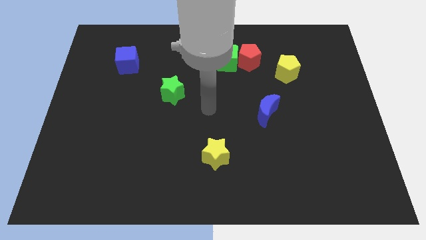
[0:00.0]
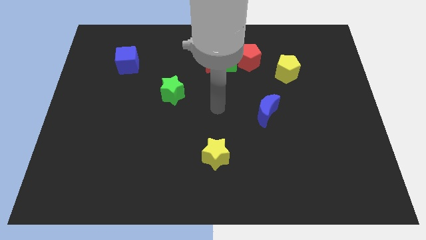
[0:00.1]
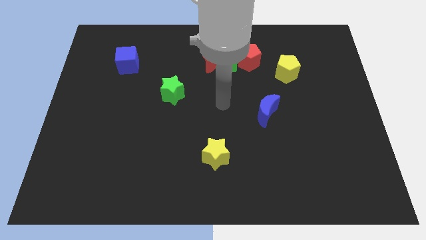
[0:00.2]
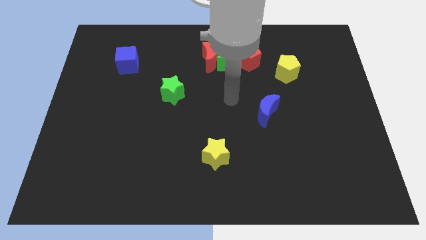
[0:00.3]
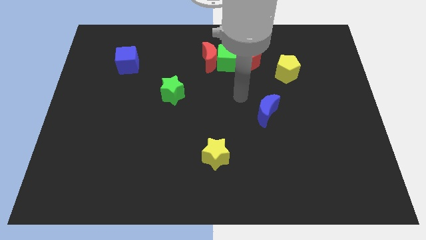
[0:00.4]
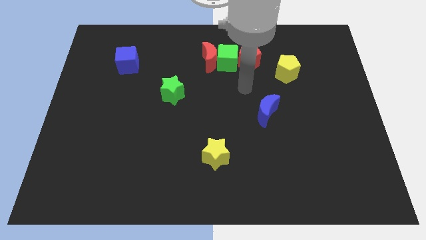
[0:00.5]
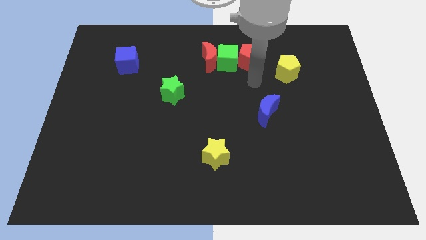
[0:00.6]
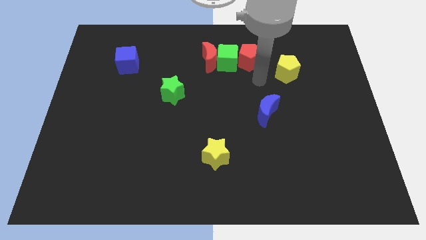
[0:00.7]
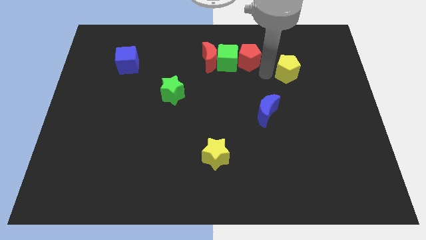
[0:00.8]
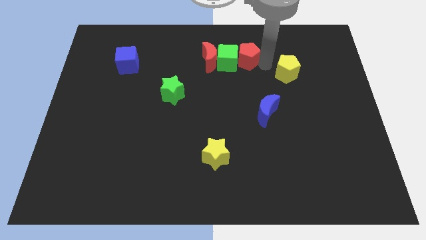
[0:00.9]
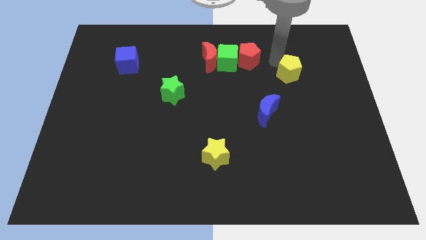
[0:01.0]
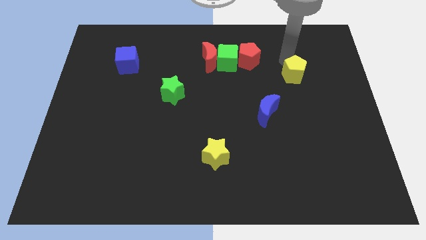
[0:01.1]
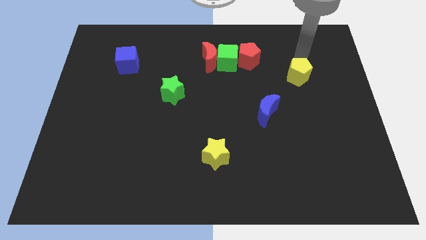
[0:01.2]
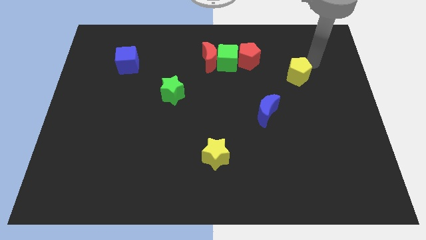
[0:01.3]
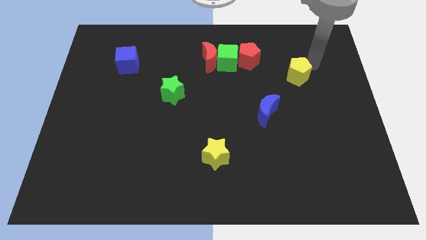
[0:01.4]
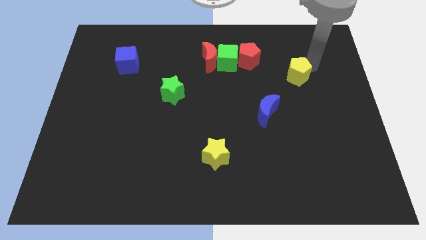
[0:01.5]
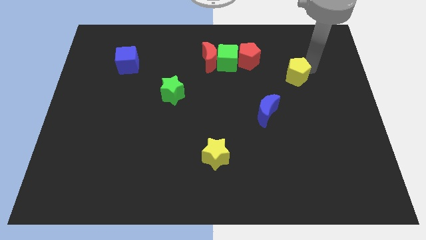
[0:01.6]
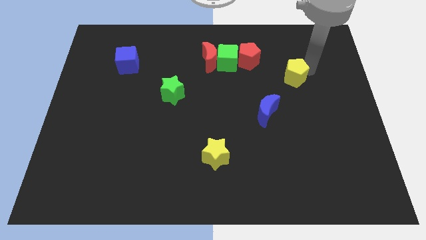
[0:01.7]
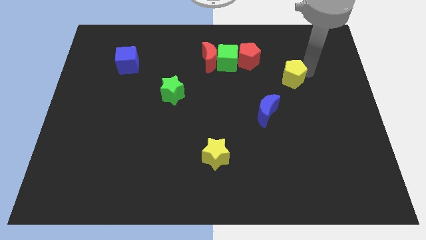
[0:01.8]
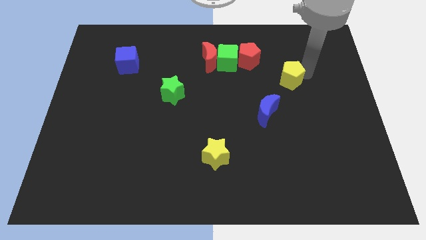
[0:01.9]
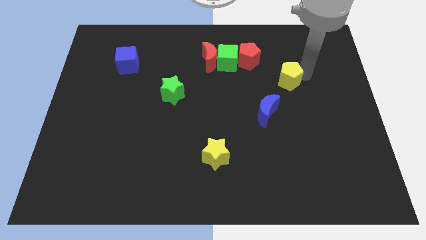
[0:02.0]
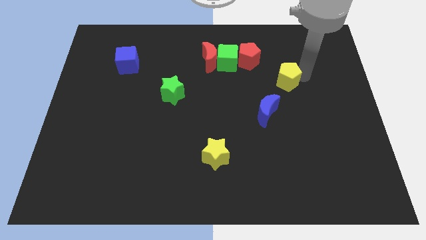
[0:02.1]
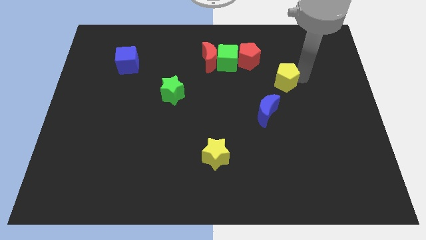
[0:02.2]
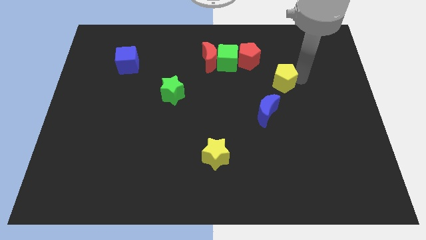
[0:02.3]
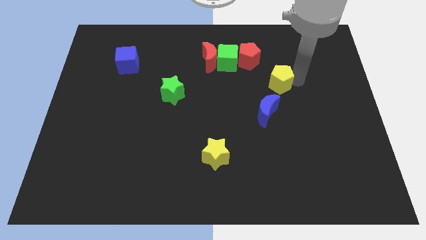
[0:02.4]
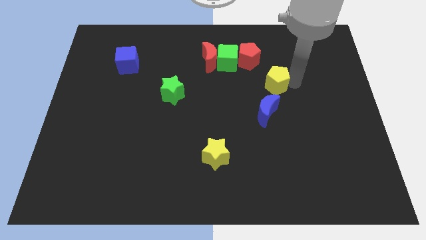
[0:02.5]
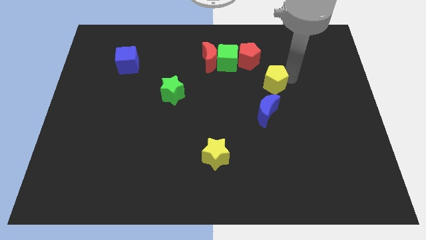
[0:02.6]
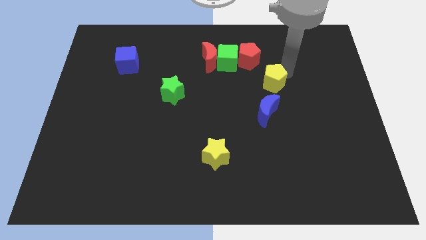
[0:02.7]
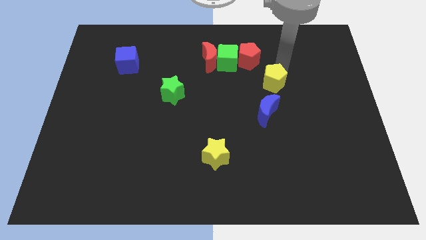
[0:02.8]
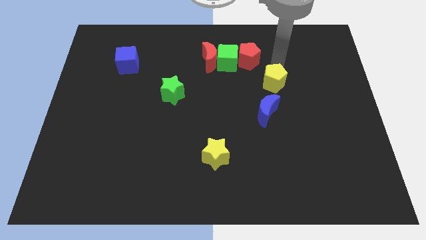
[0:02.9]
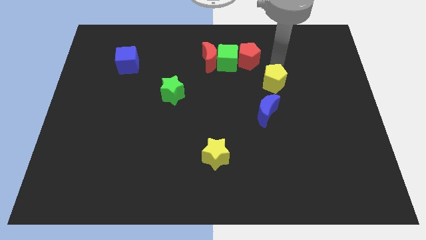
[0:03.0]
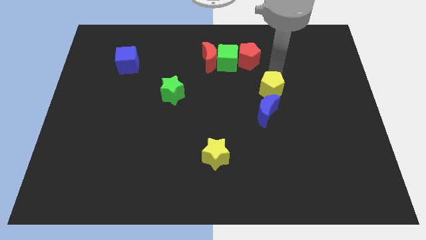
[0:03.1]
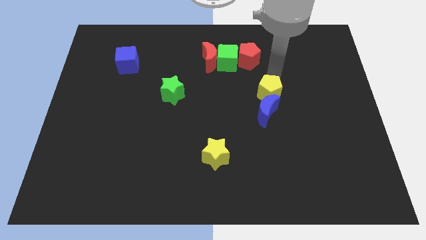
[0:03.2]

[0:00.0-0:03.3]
slide the yellow pentagon close to the blue moon

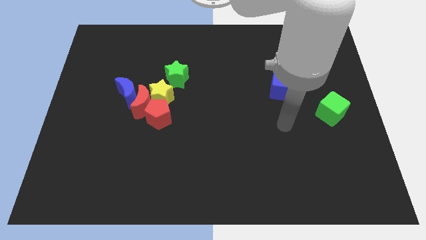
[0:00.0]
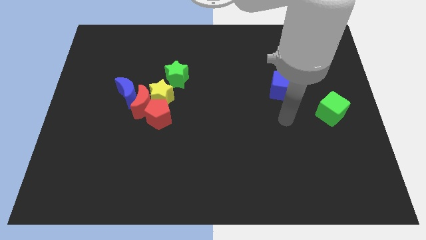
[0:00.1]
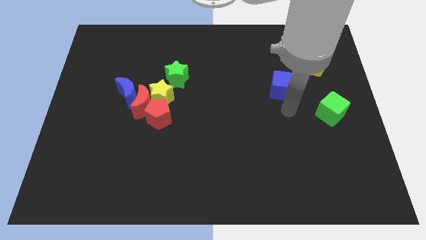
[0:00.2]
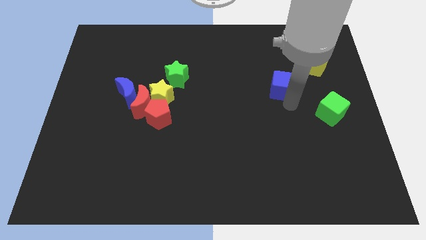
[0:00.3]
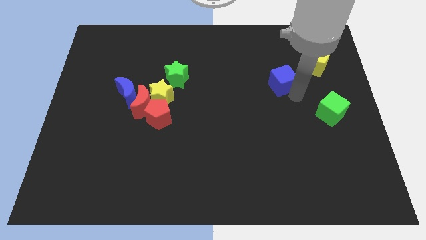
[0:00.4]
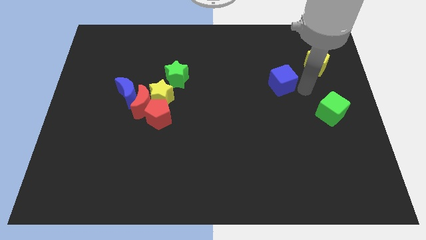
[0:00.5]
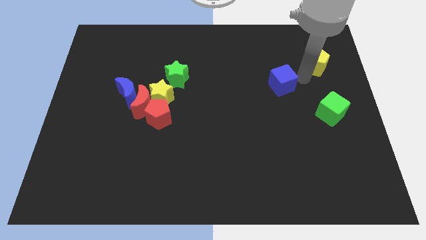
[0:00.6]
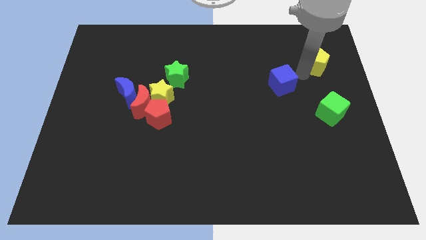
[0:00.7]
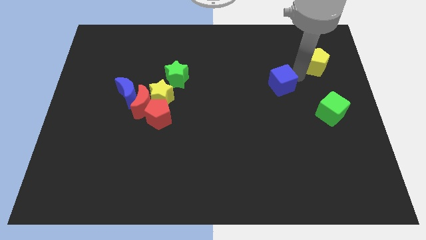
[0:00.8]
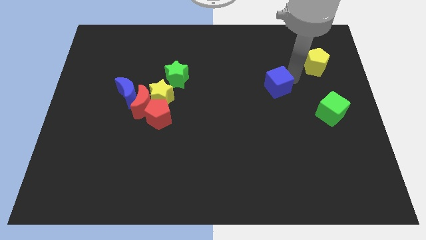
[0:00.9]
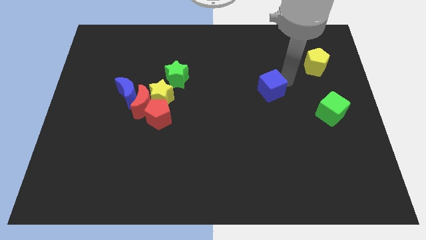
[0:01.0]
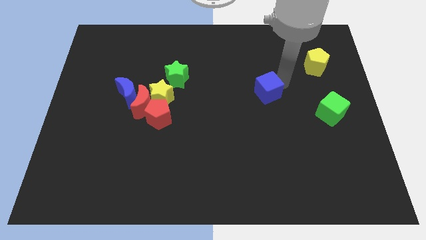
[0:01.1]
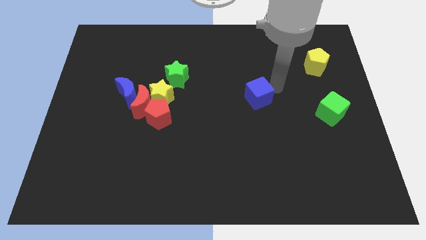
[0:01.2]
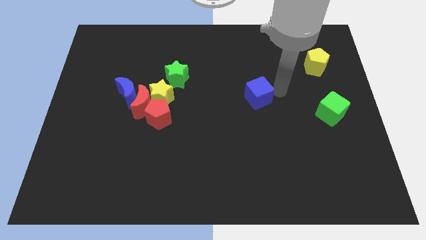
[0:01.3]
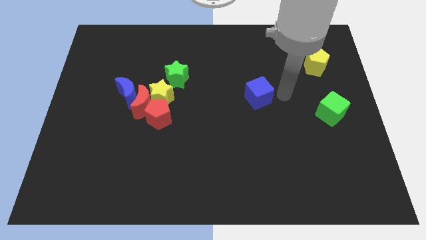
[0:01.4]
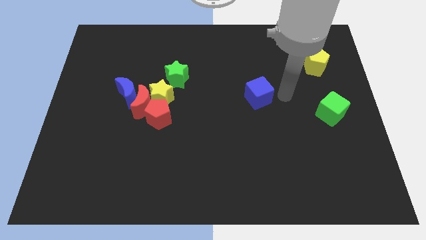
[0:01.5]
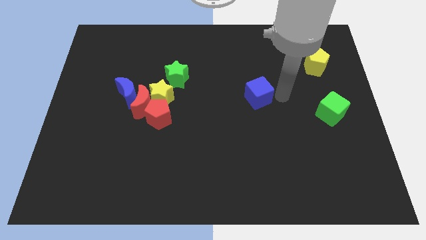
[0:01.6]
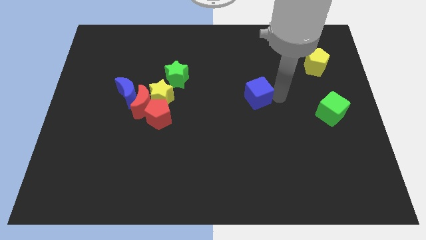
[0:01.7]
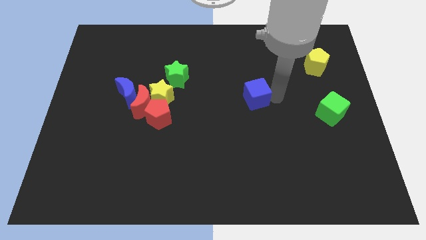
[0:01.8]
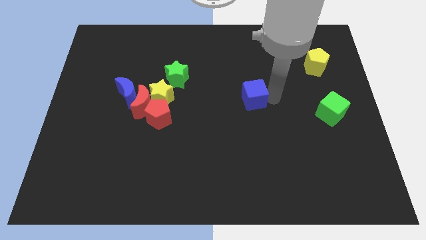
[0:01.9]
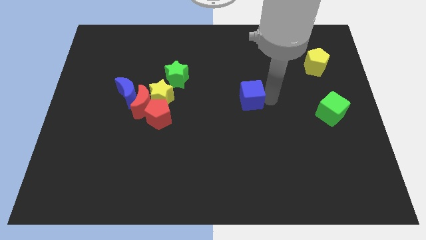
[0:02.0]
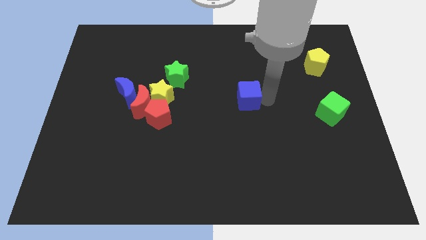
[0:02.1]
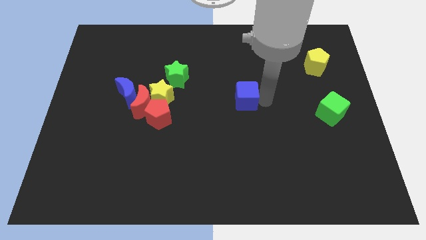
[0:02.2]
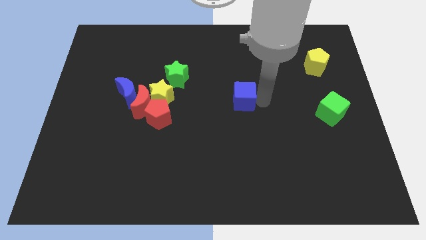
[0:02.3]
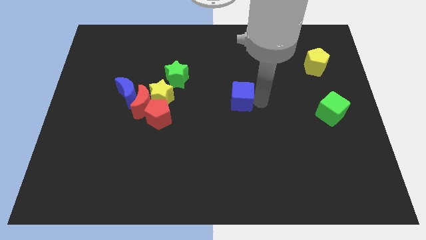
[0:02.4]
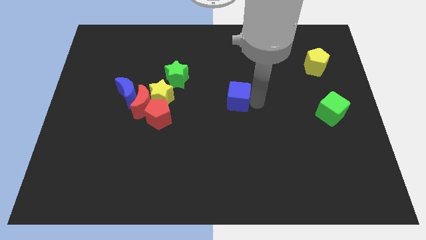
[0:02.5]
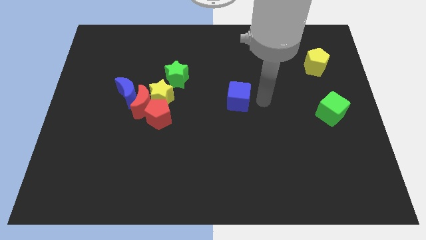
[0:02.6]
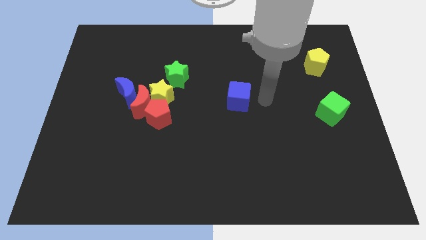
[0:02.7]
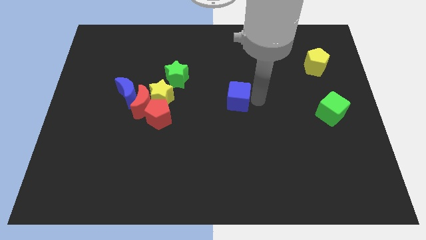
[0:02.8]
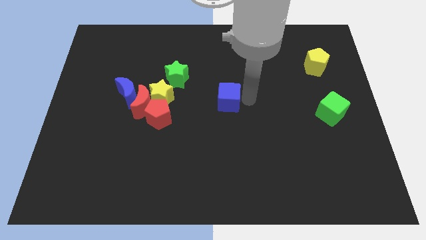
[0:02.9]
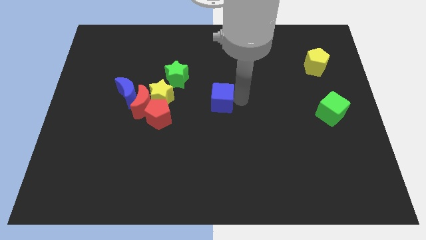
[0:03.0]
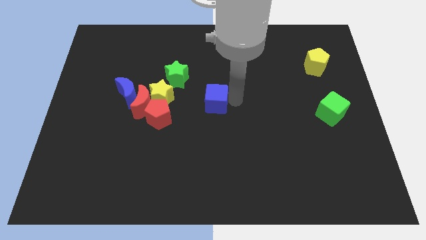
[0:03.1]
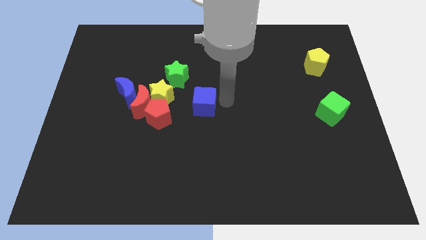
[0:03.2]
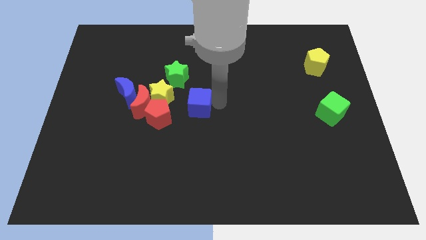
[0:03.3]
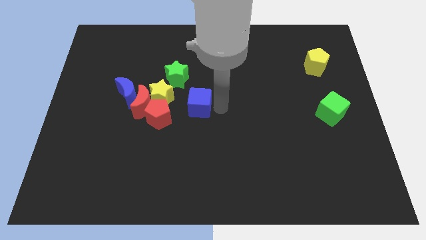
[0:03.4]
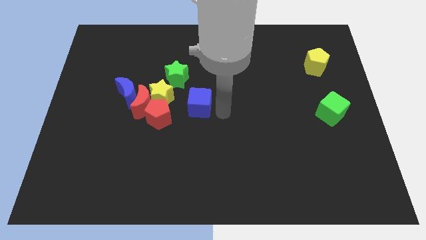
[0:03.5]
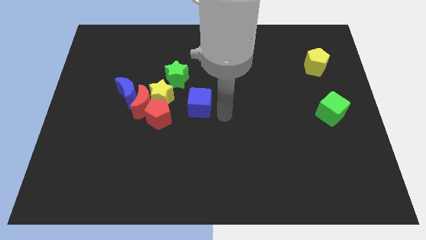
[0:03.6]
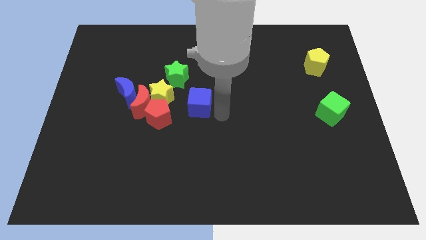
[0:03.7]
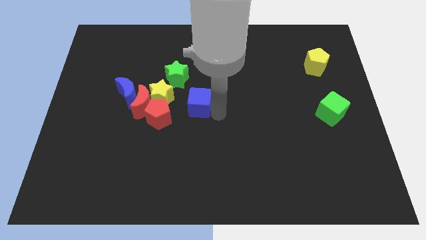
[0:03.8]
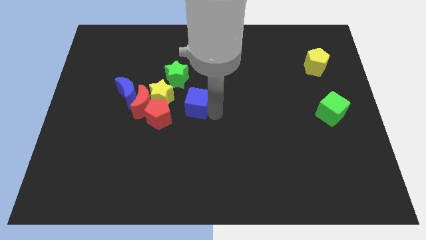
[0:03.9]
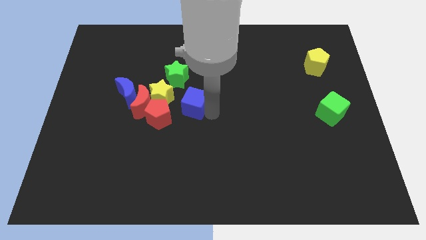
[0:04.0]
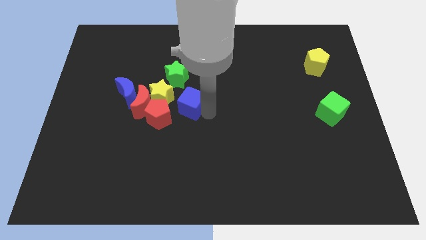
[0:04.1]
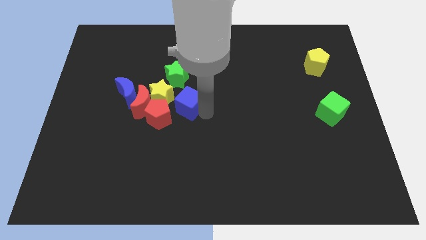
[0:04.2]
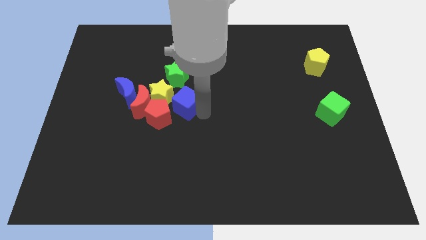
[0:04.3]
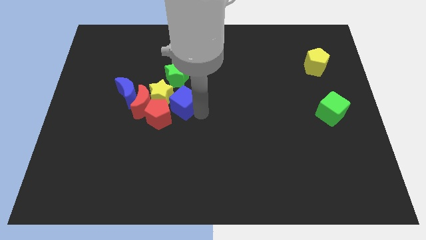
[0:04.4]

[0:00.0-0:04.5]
move the blue cube towards the yellow star
